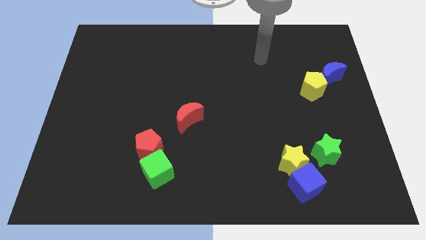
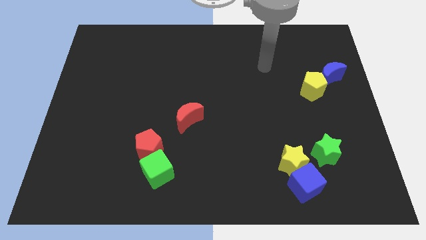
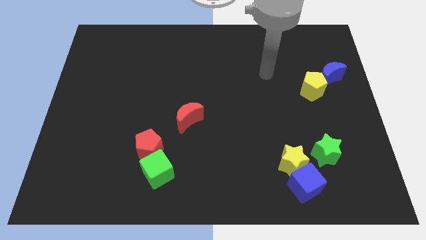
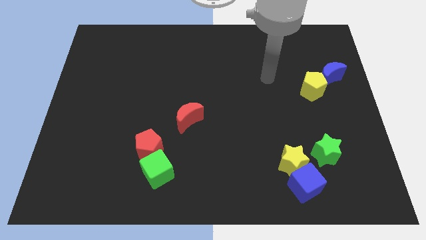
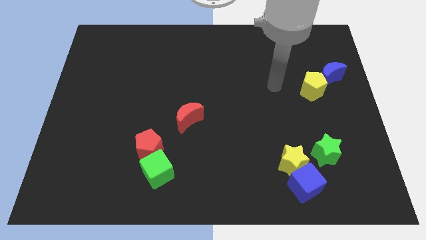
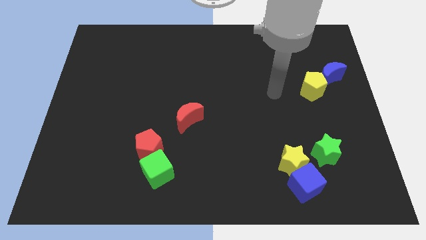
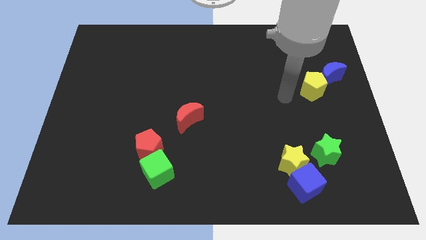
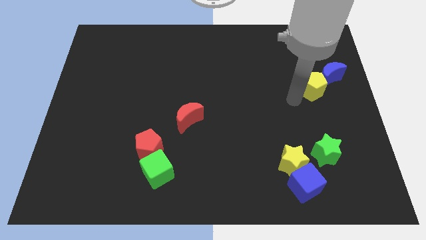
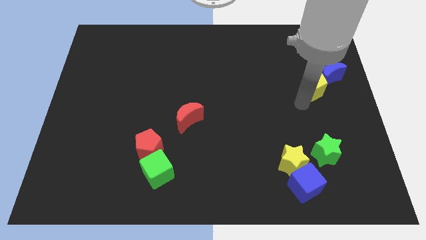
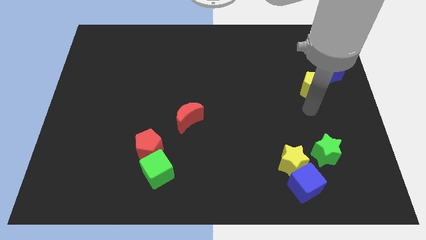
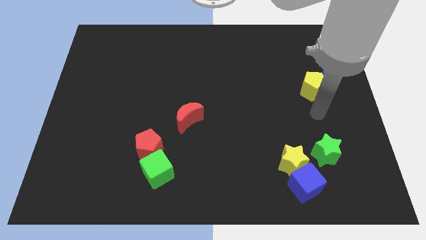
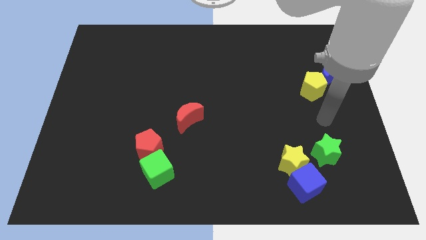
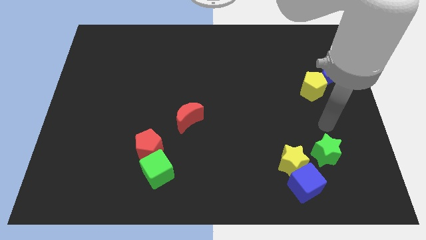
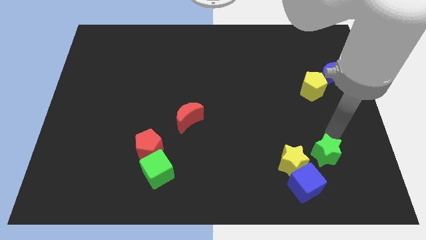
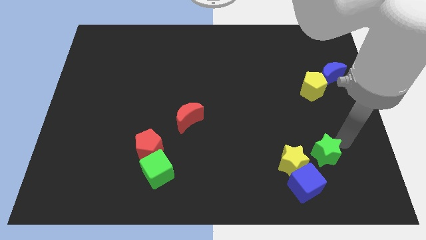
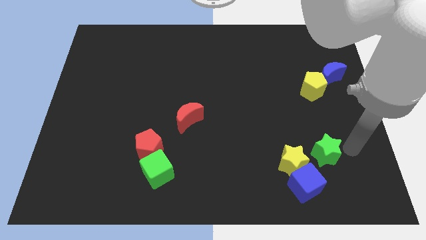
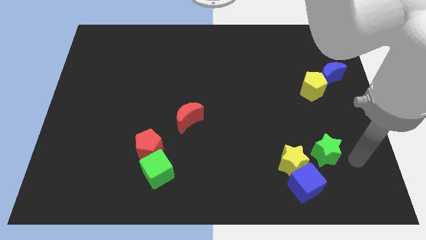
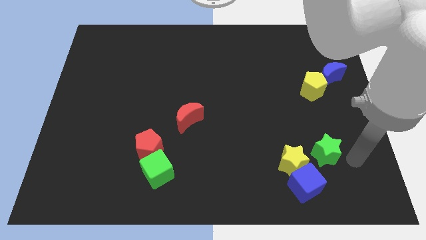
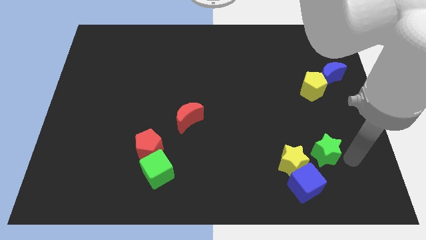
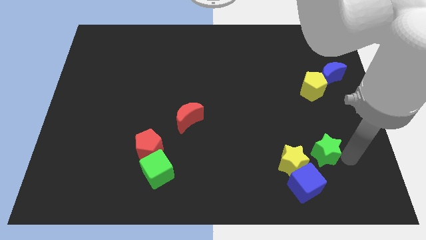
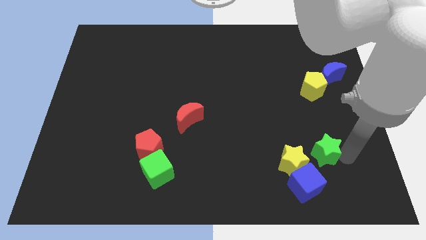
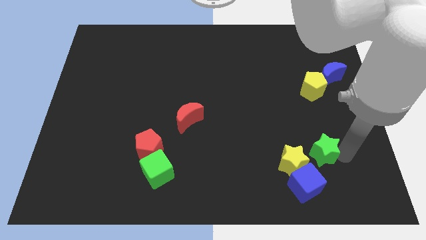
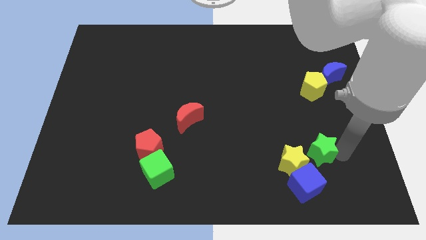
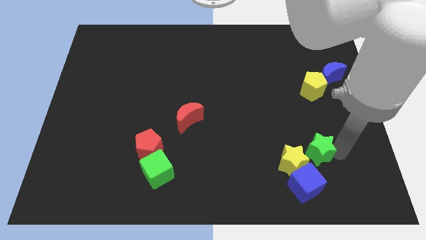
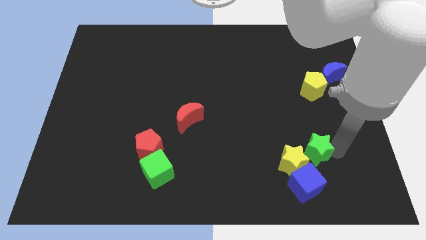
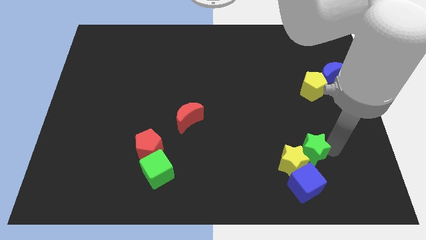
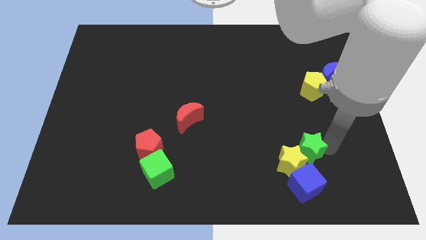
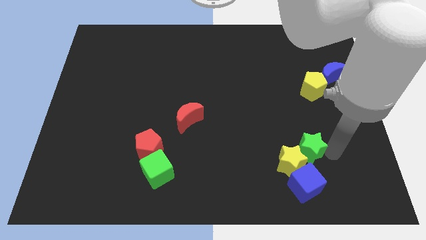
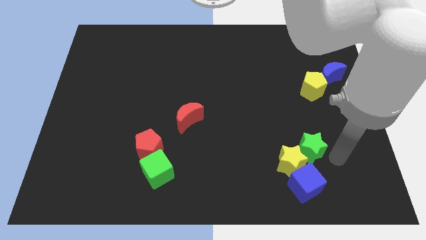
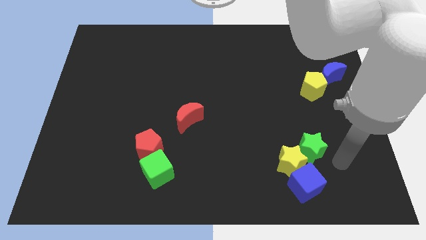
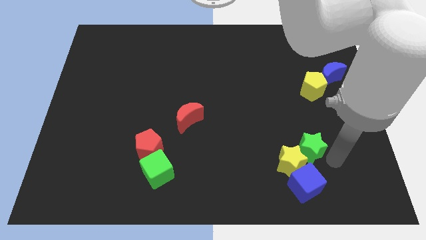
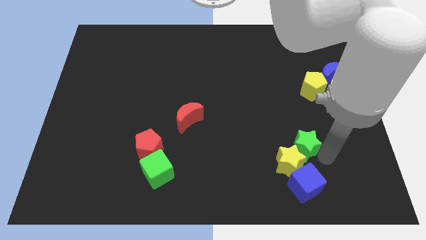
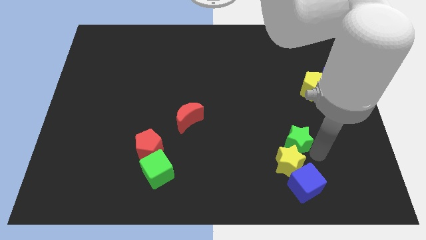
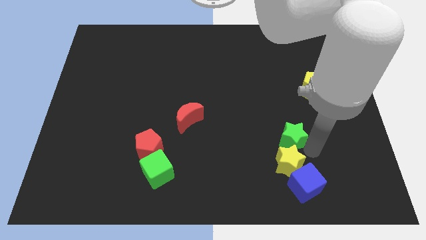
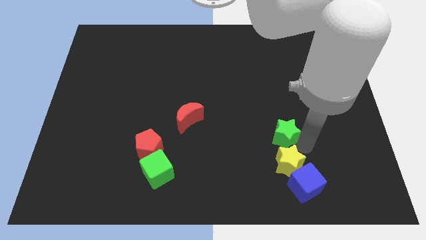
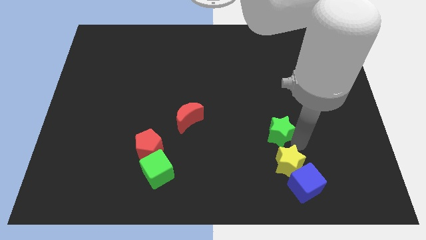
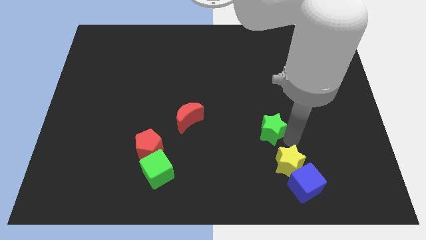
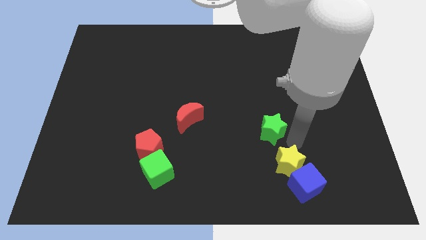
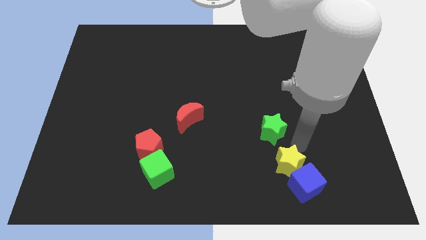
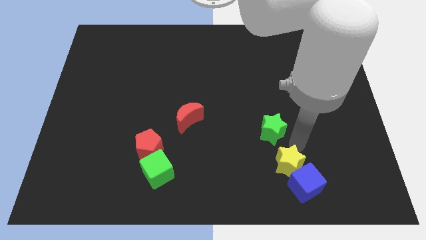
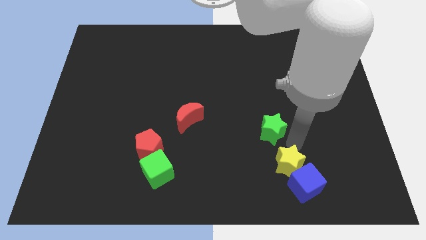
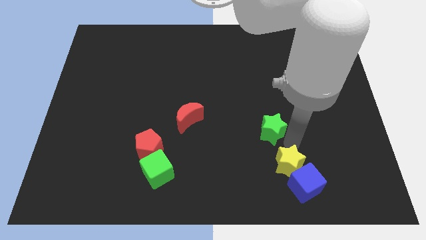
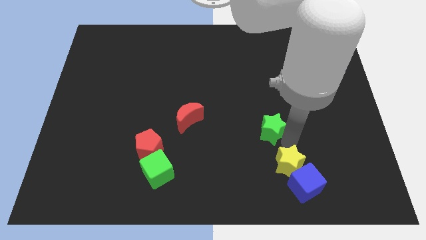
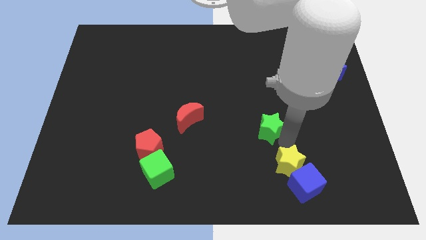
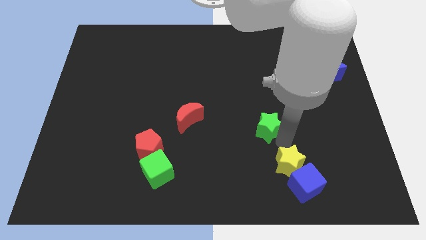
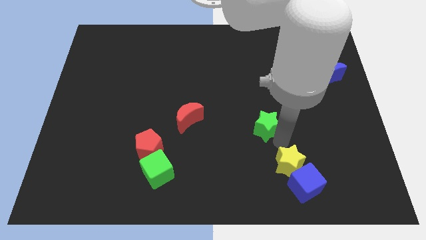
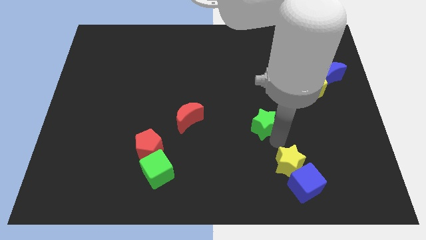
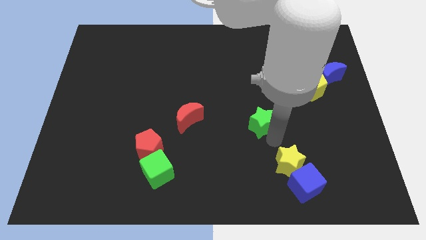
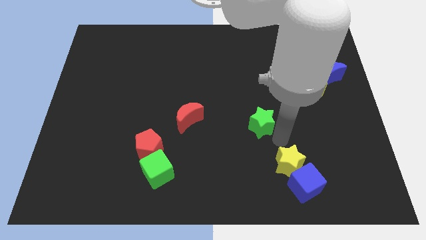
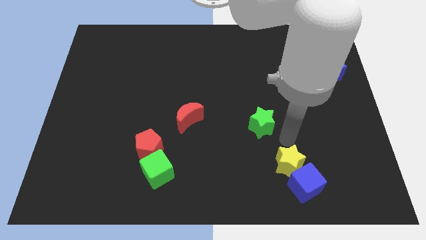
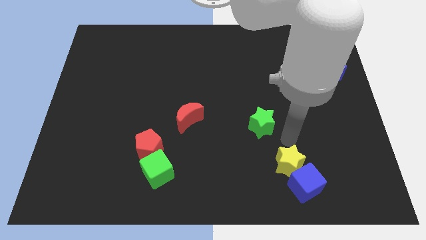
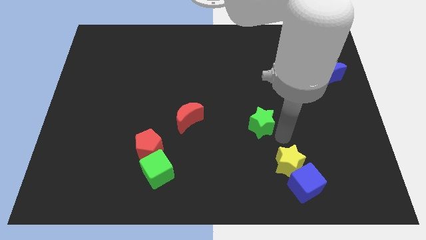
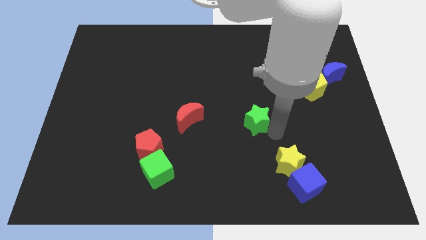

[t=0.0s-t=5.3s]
slide the green star to the center

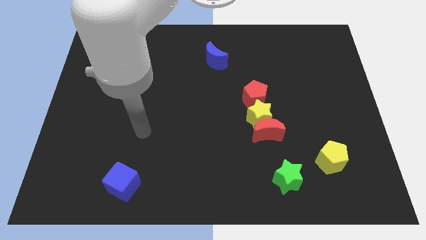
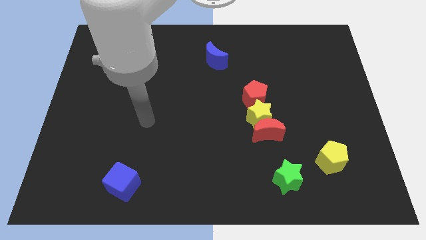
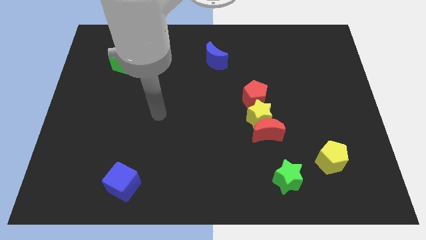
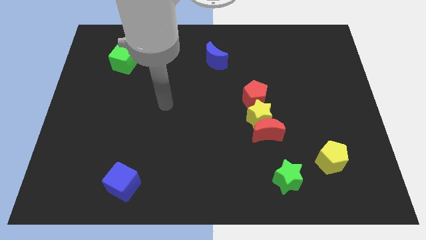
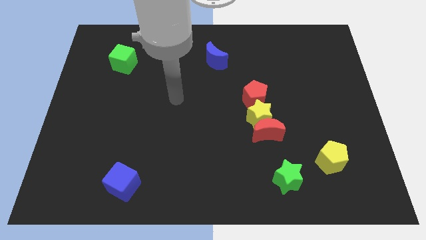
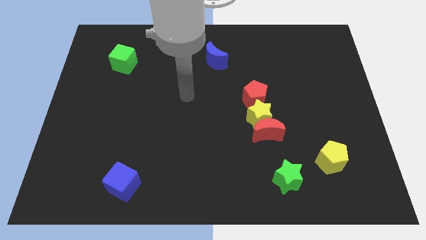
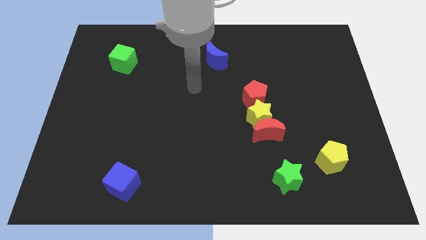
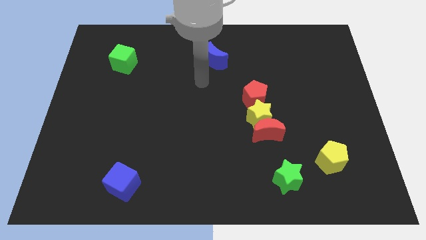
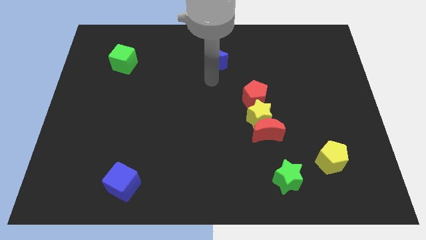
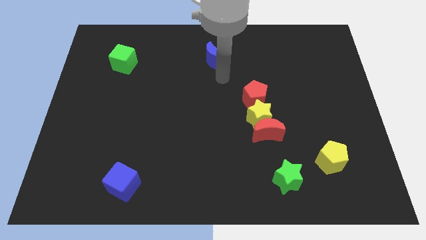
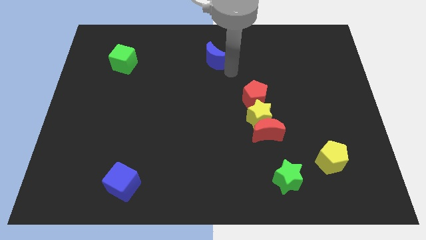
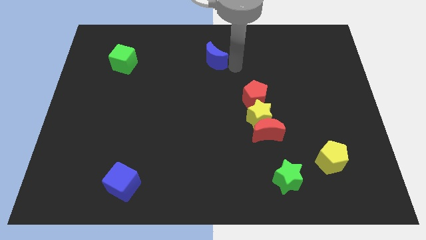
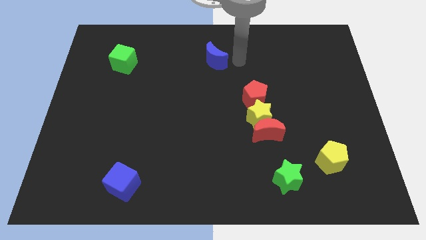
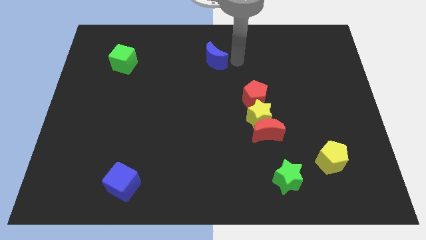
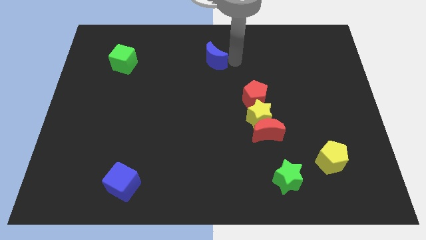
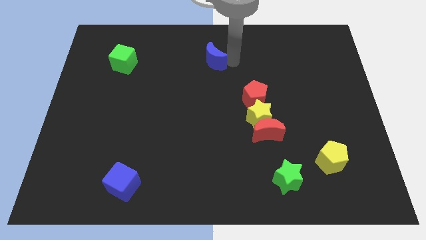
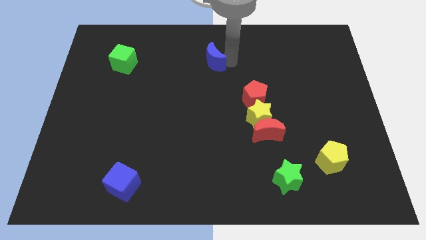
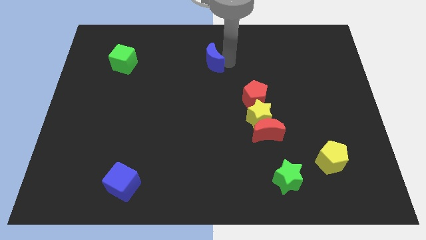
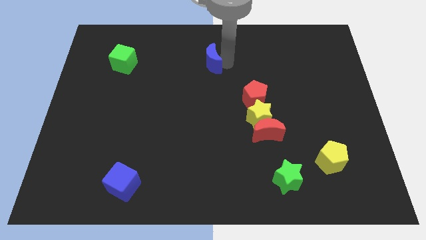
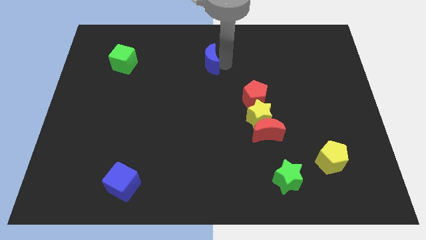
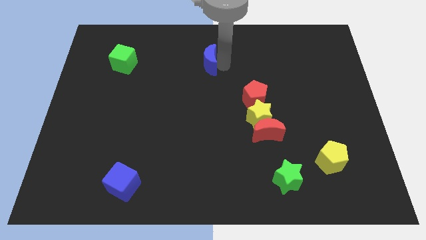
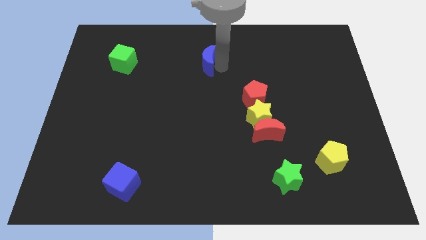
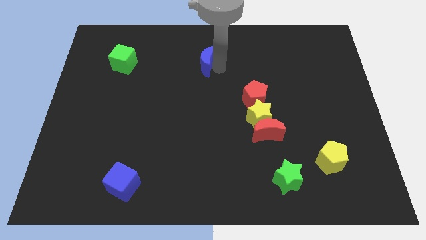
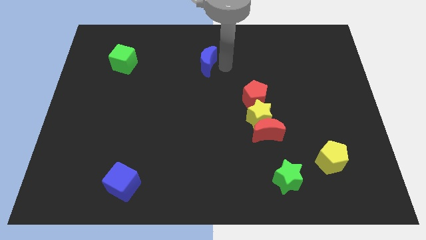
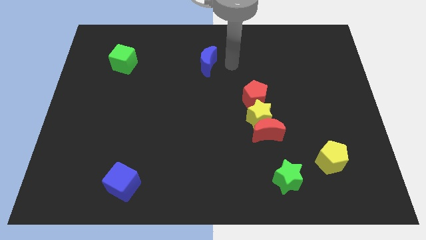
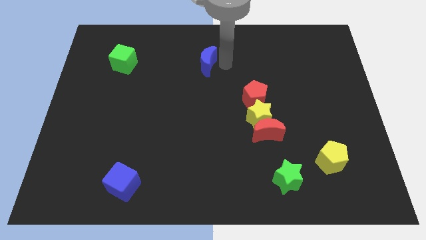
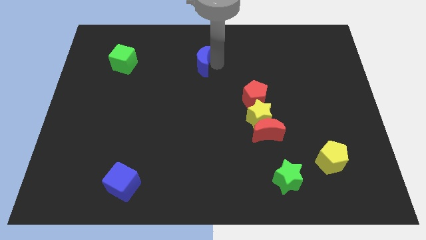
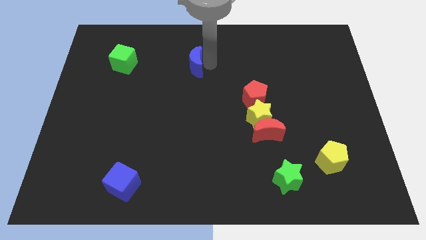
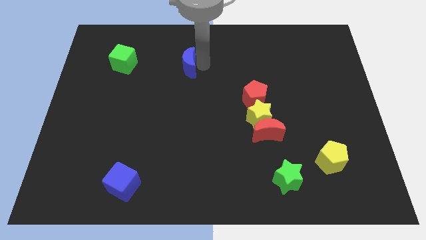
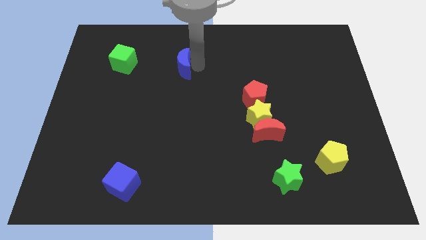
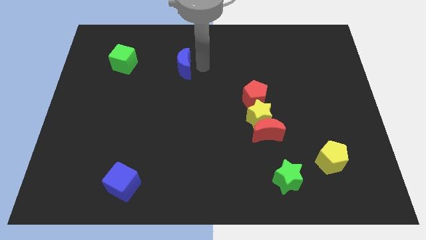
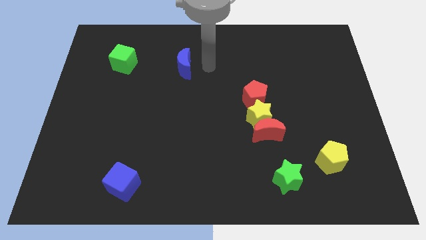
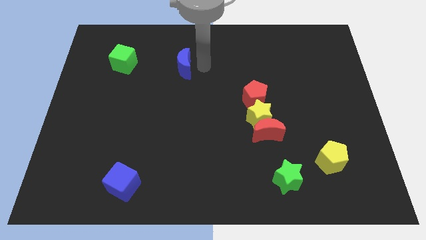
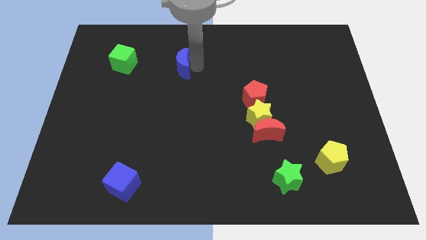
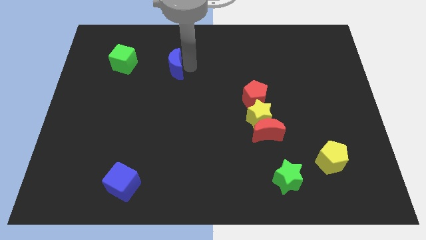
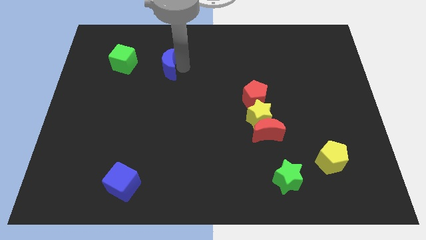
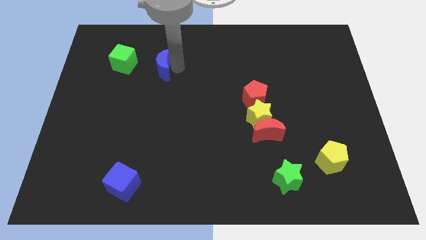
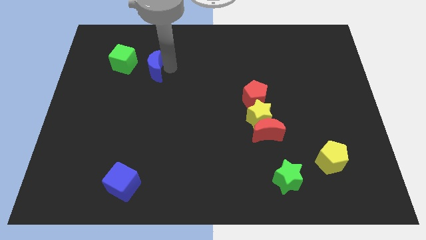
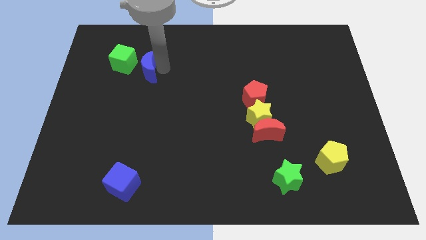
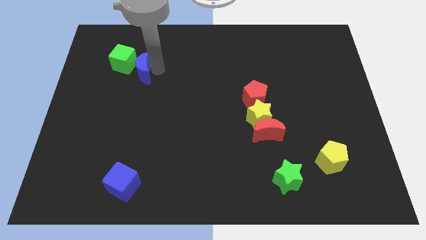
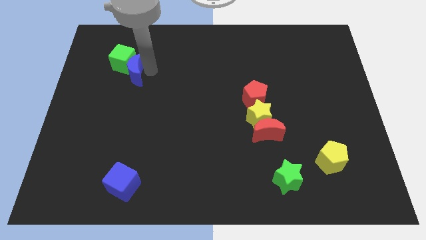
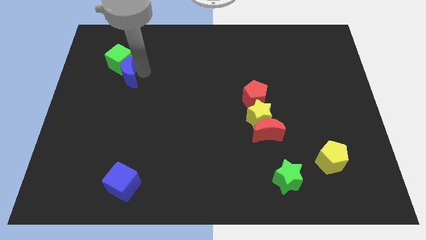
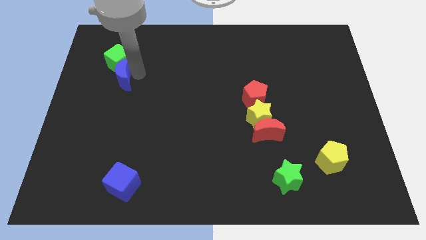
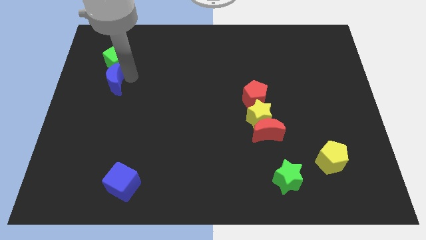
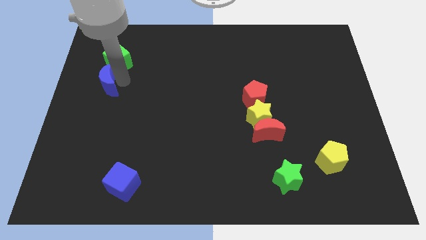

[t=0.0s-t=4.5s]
push the blue moon to the left side of the board
